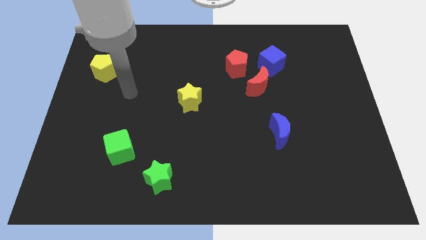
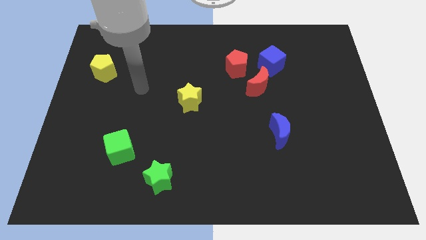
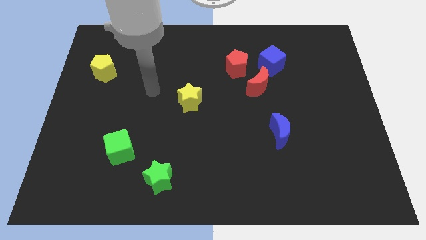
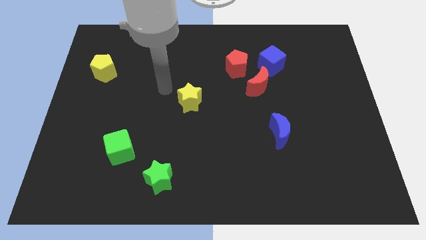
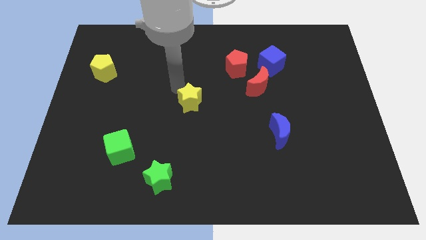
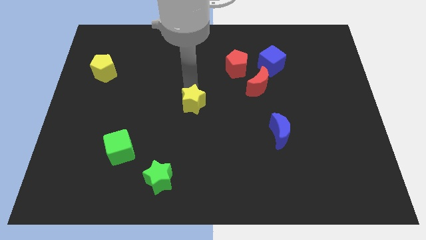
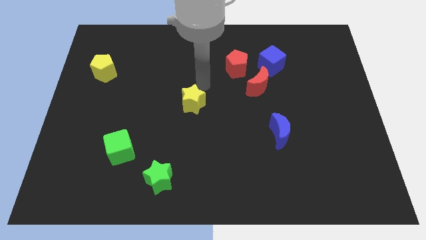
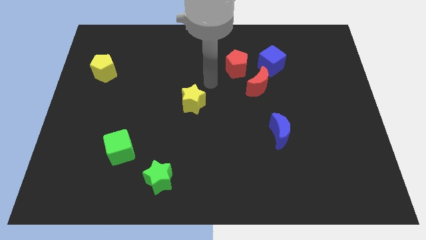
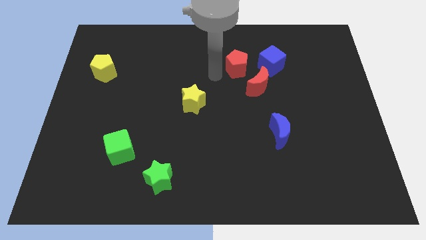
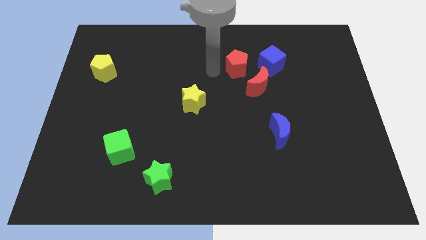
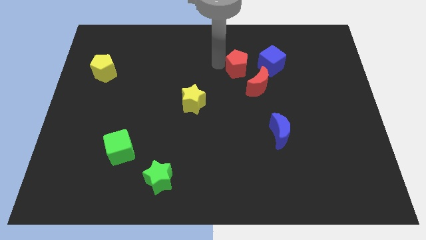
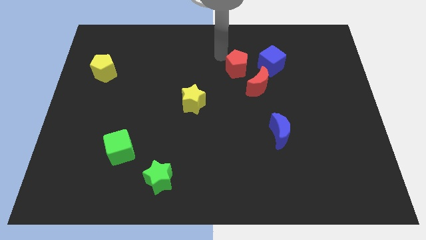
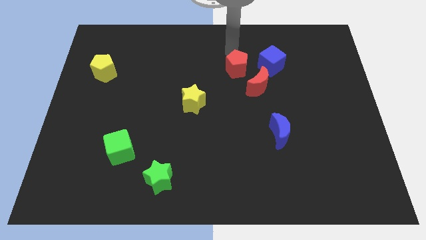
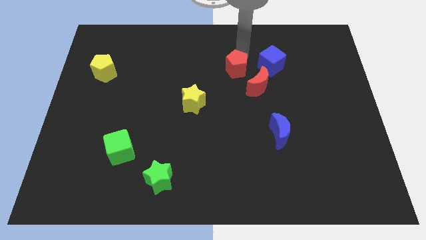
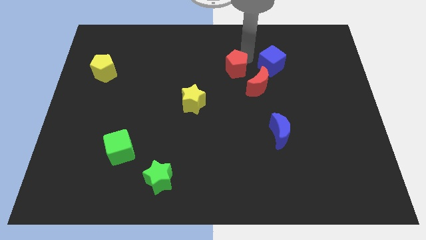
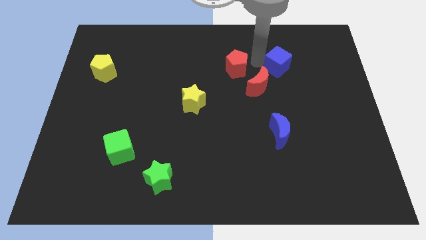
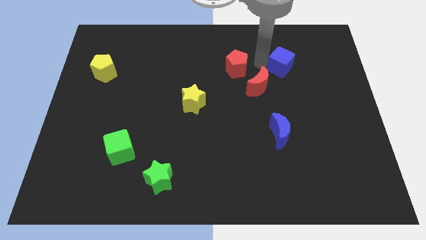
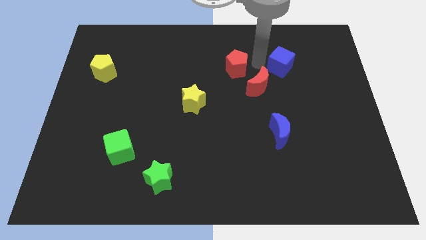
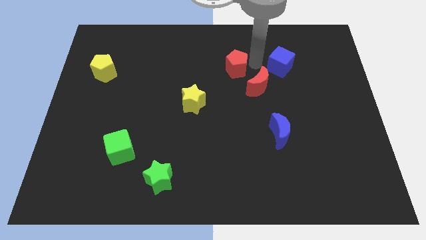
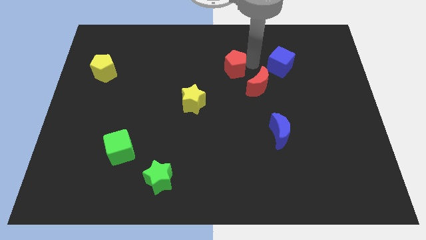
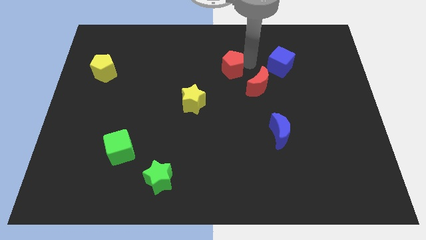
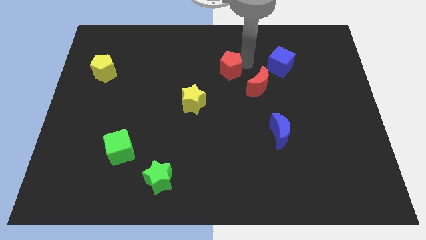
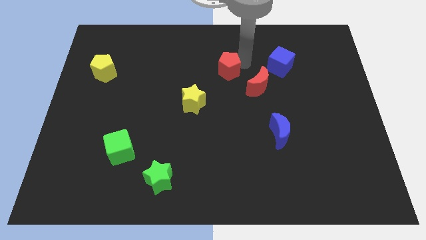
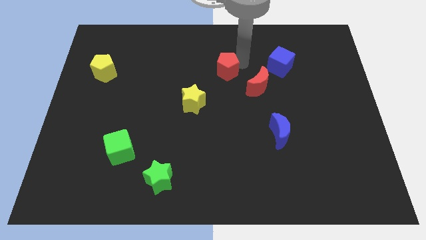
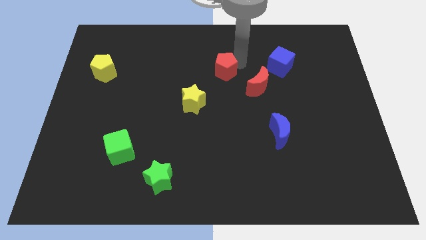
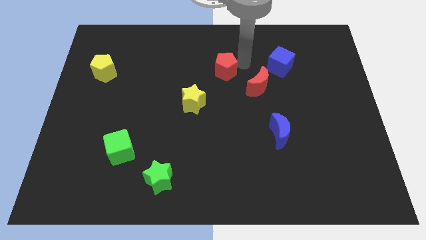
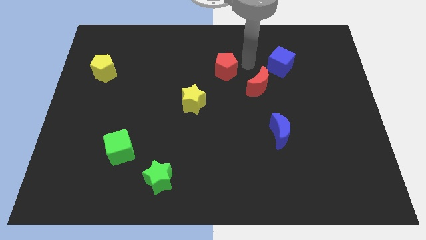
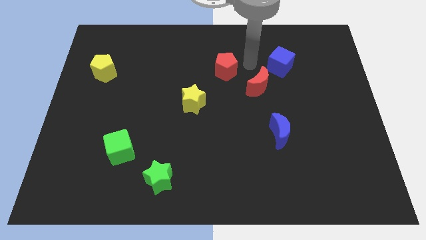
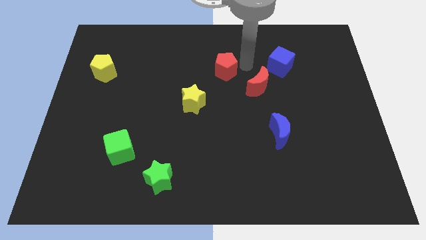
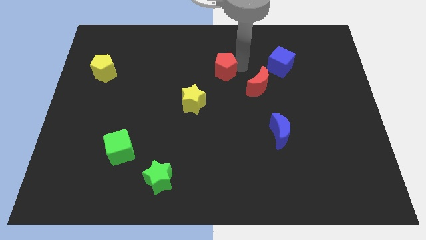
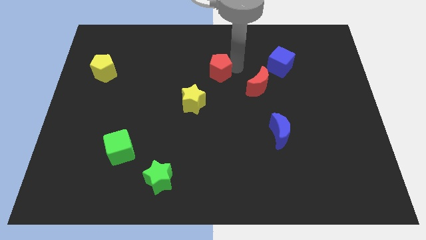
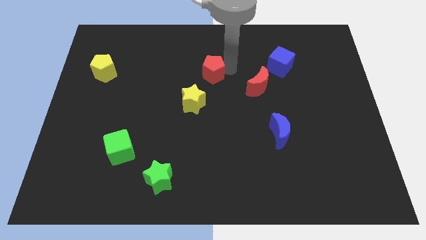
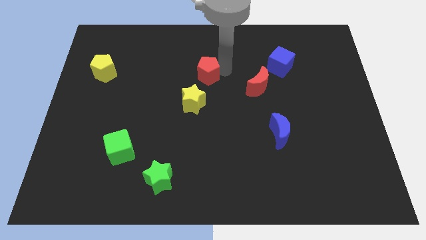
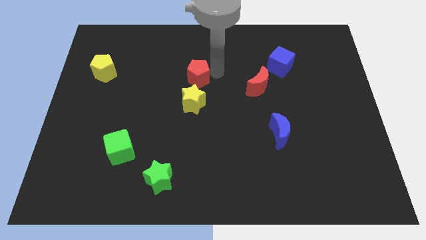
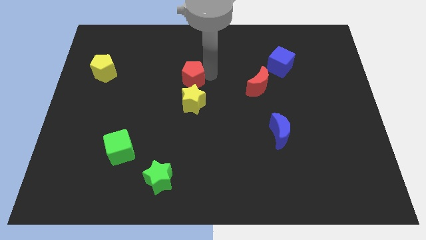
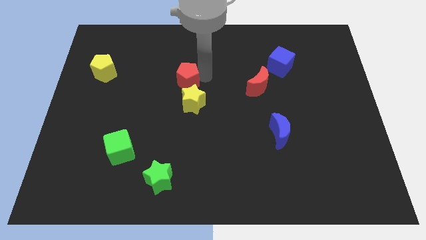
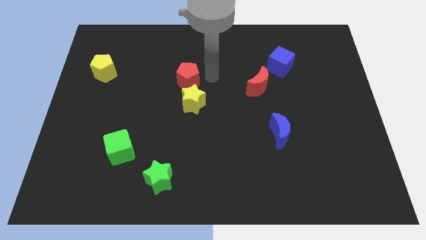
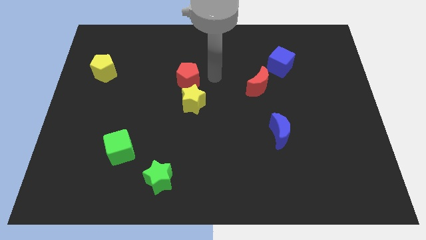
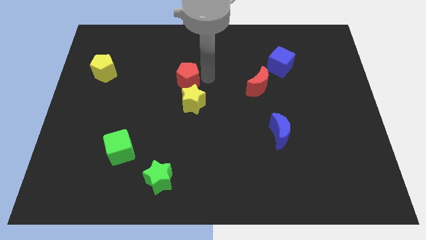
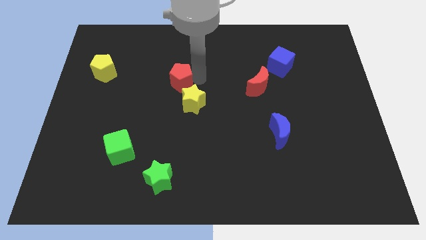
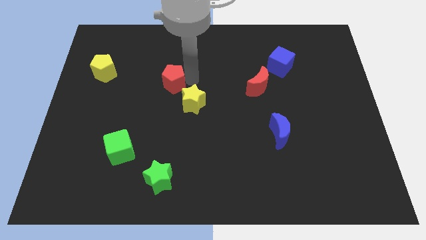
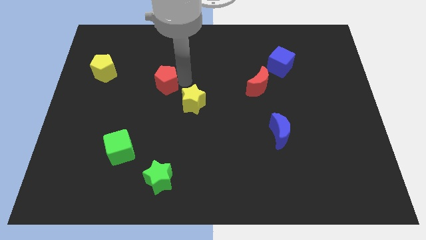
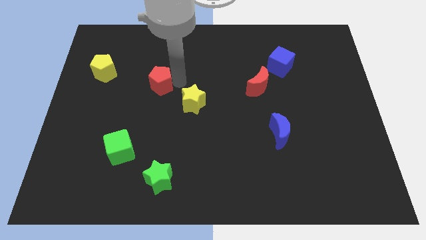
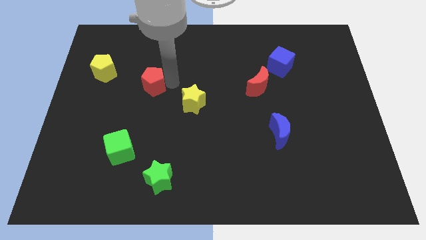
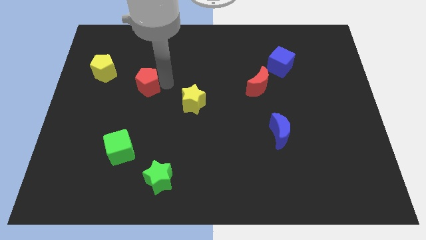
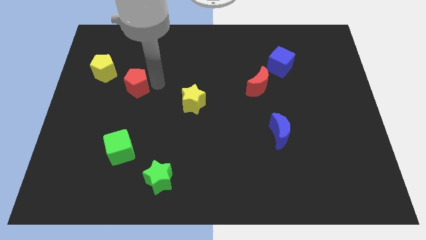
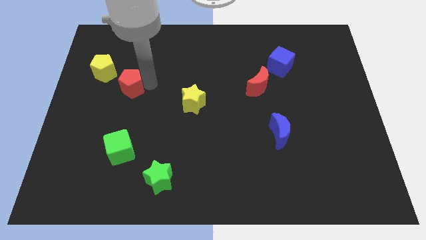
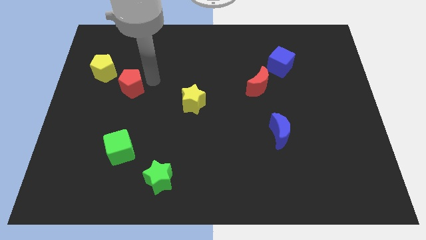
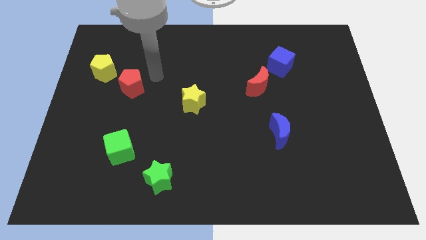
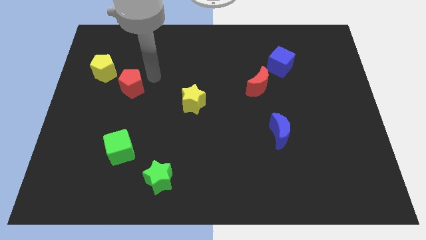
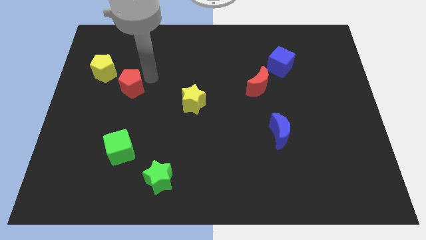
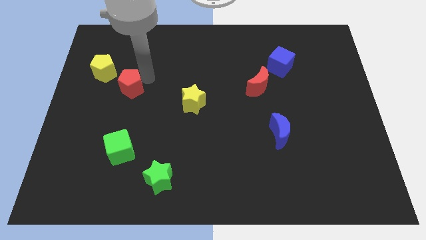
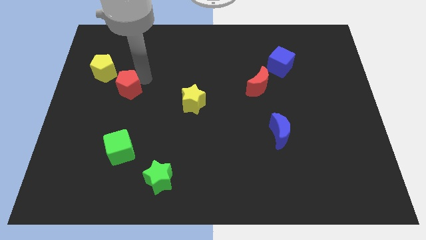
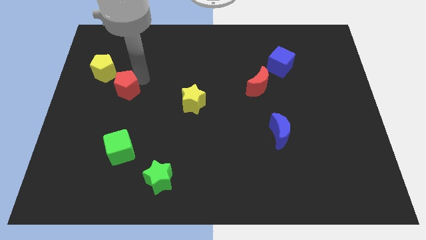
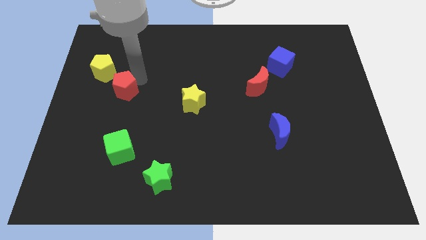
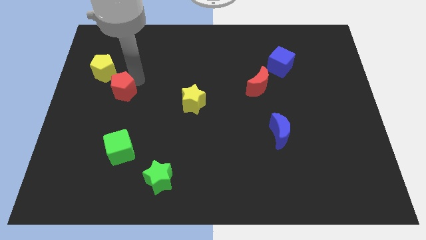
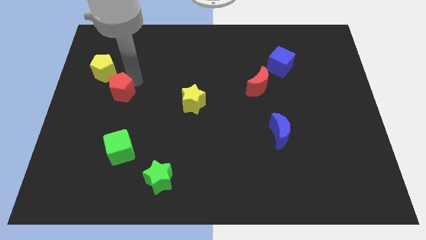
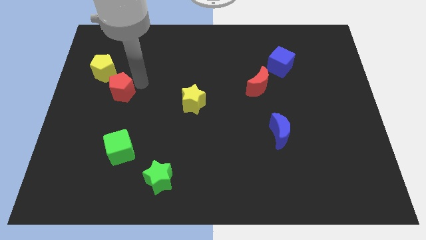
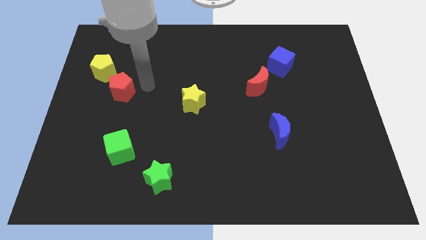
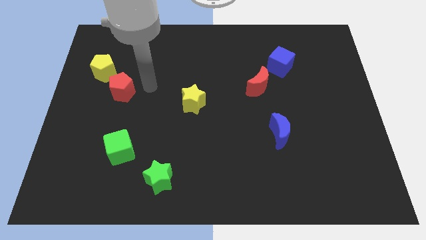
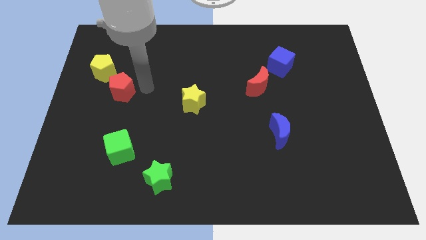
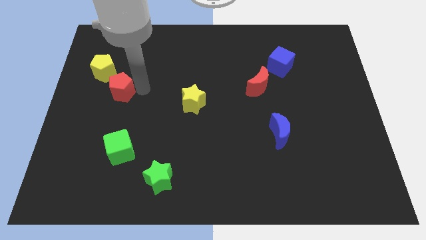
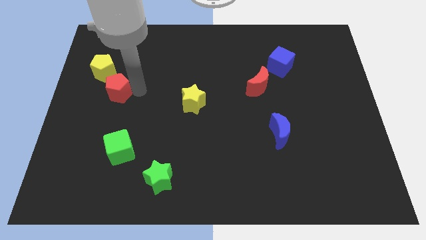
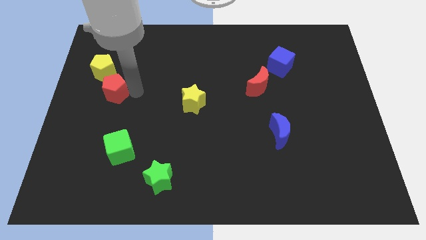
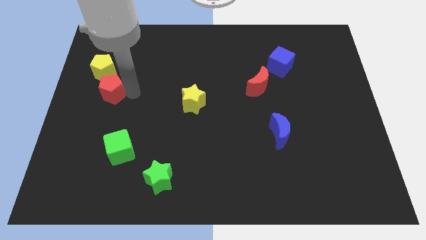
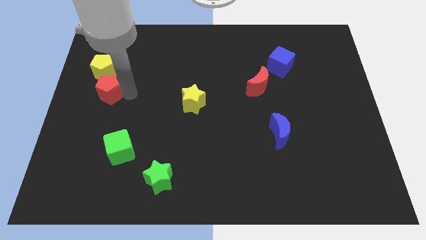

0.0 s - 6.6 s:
move the red pentagon to the left side
